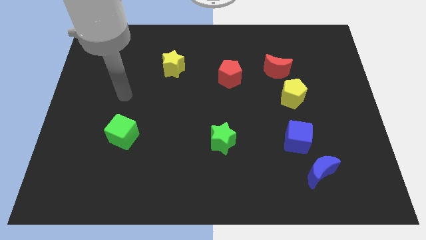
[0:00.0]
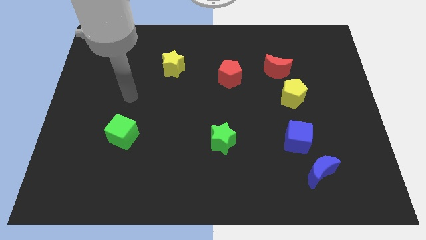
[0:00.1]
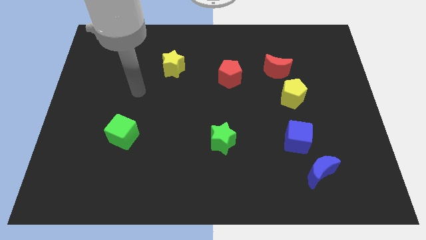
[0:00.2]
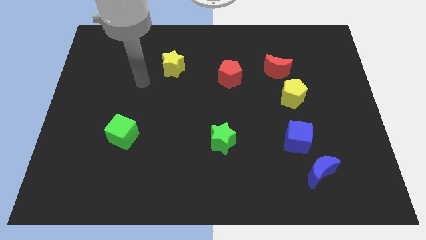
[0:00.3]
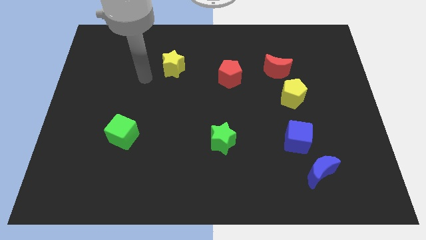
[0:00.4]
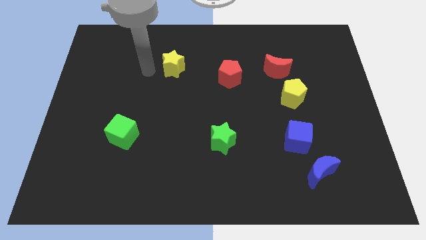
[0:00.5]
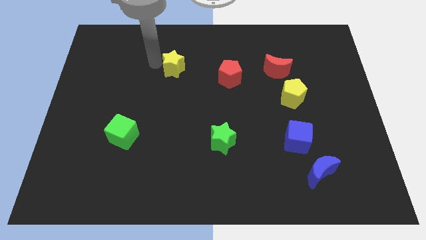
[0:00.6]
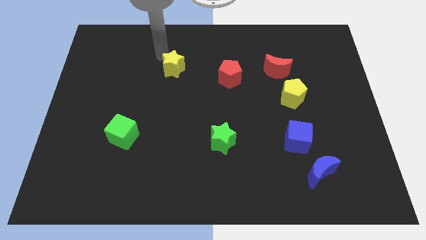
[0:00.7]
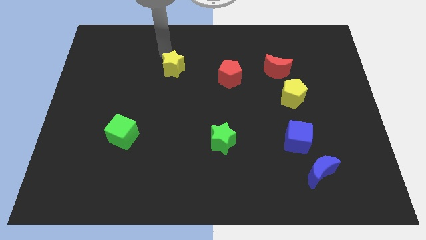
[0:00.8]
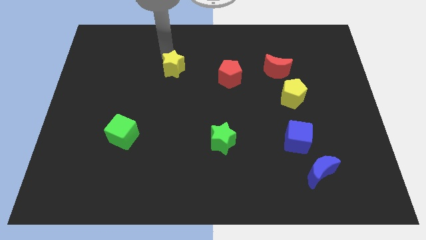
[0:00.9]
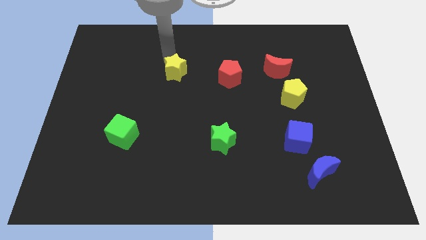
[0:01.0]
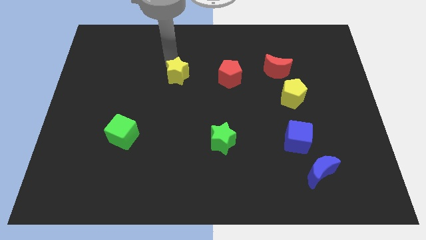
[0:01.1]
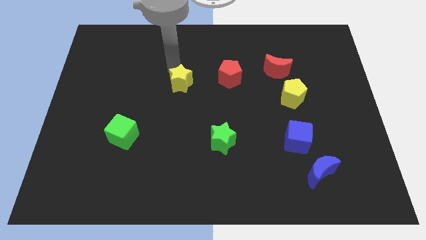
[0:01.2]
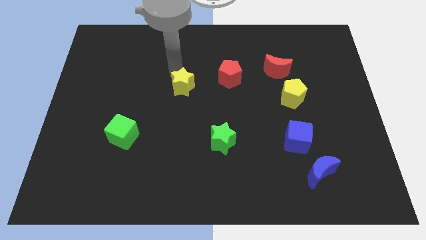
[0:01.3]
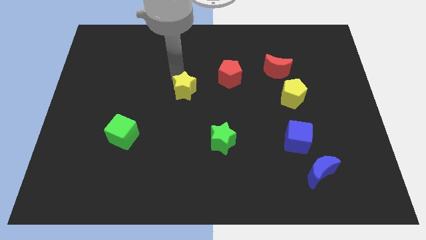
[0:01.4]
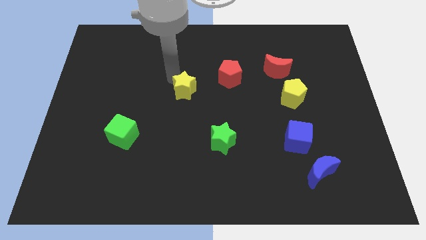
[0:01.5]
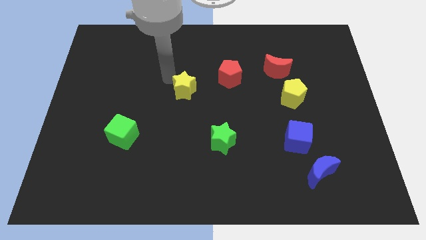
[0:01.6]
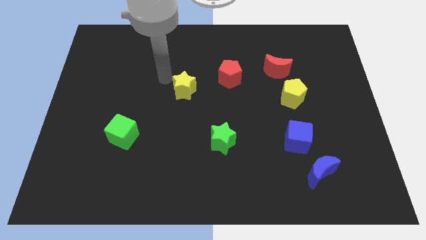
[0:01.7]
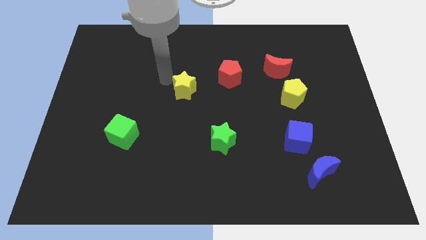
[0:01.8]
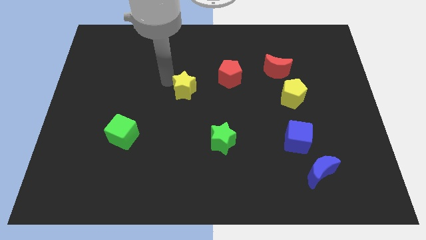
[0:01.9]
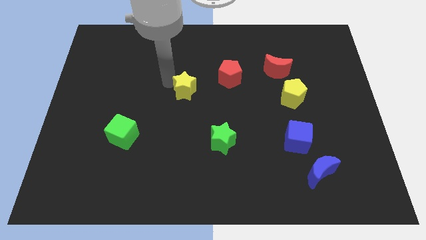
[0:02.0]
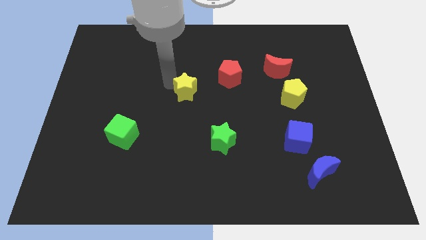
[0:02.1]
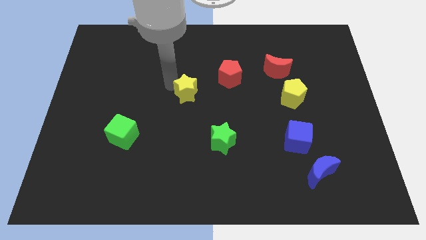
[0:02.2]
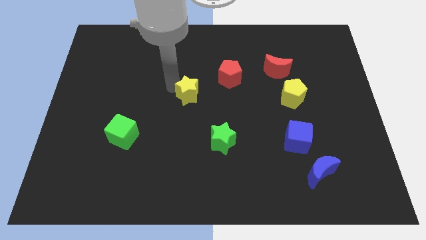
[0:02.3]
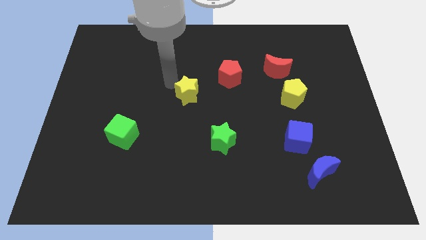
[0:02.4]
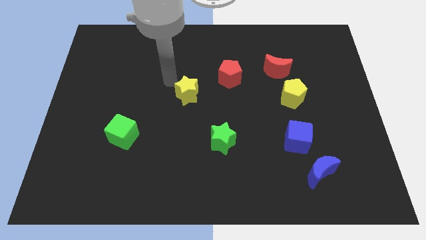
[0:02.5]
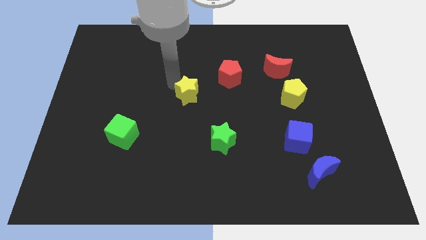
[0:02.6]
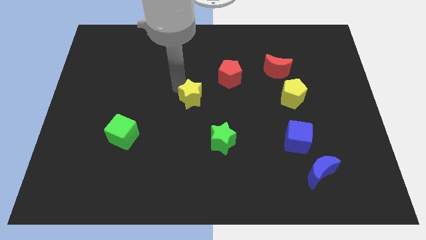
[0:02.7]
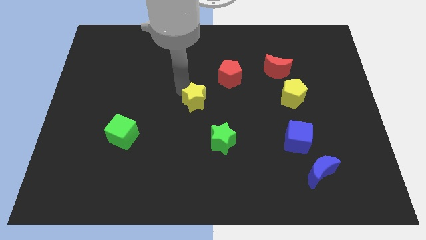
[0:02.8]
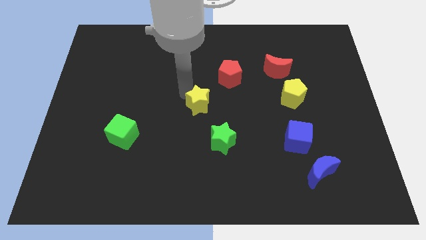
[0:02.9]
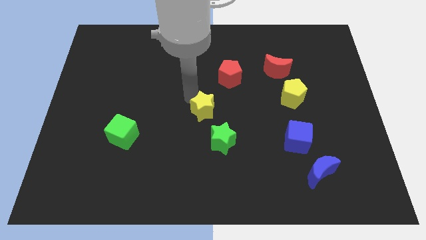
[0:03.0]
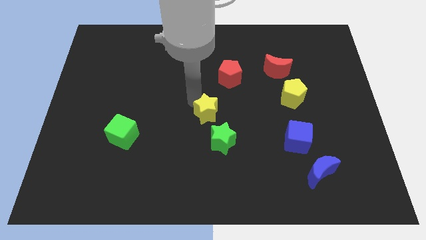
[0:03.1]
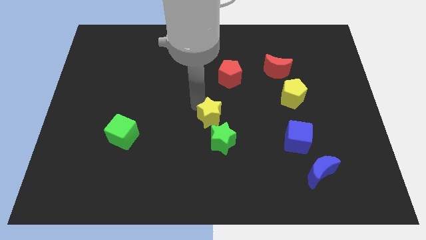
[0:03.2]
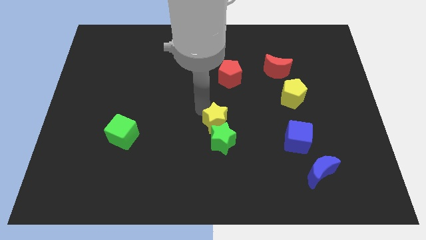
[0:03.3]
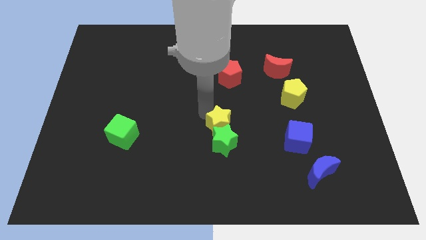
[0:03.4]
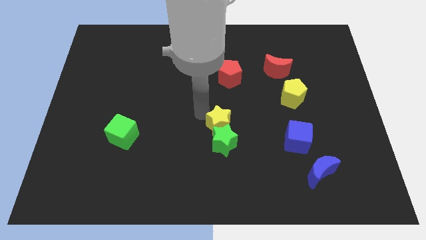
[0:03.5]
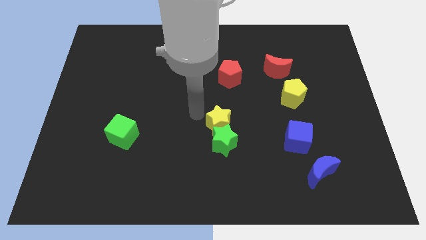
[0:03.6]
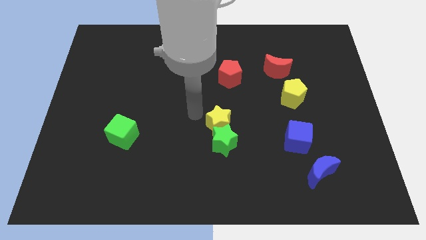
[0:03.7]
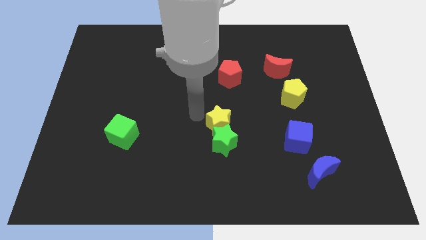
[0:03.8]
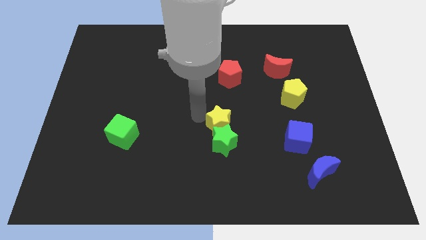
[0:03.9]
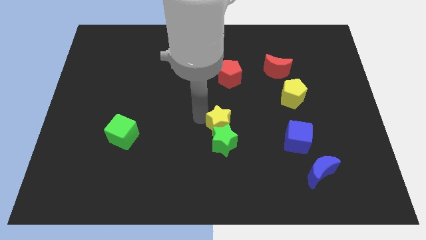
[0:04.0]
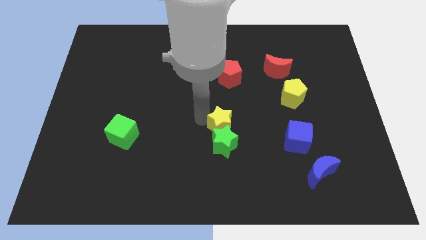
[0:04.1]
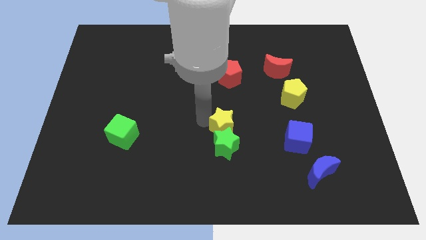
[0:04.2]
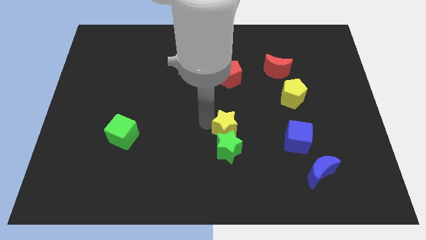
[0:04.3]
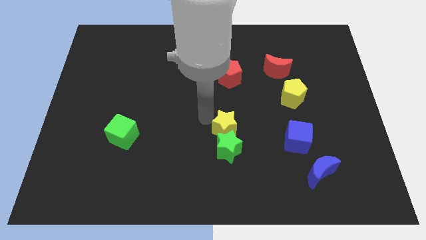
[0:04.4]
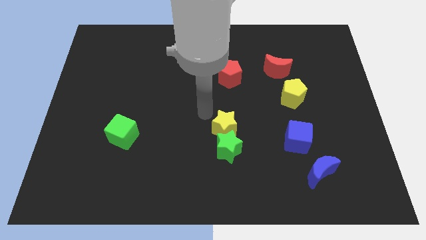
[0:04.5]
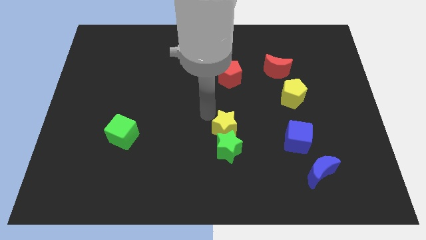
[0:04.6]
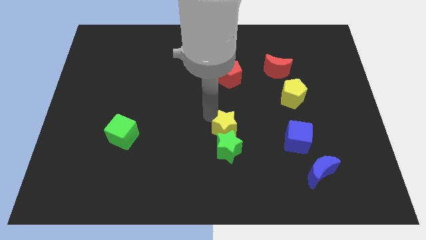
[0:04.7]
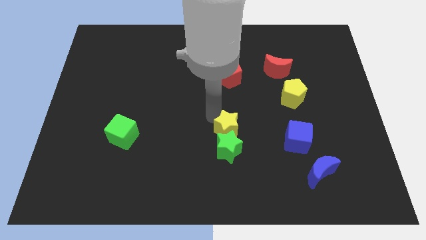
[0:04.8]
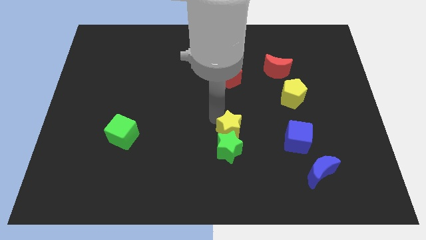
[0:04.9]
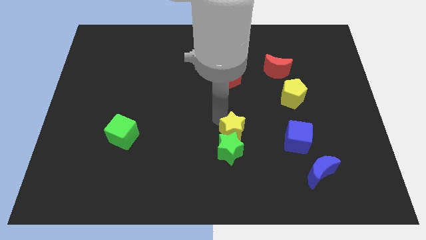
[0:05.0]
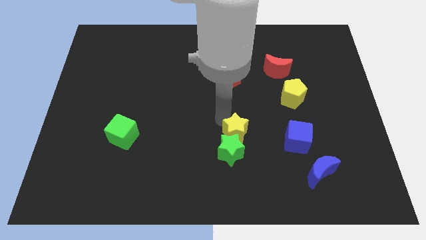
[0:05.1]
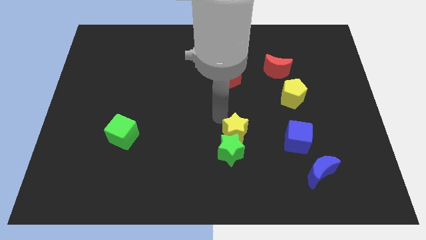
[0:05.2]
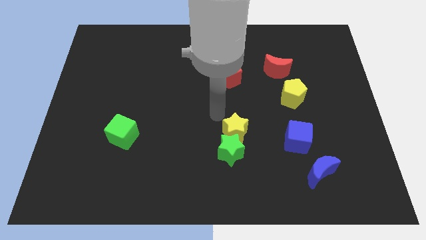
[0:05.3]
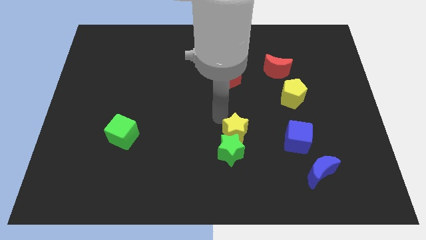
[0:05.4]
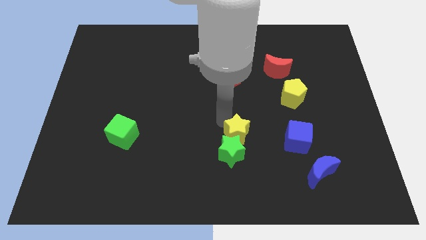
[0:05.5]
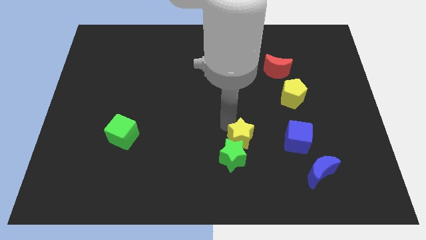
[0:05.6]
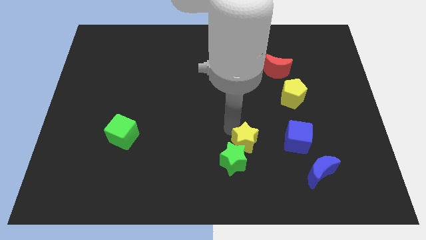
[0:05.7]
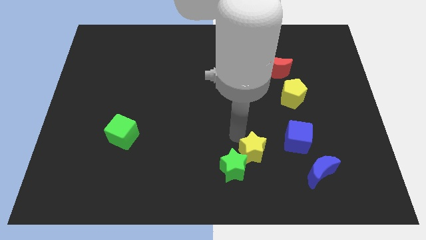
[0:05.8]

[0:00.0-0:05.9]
put the yellow star to the bottom left of the blue cube

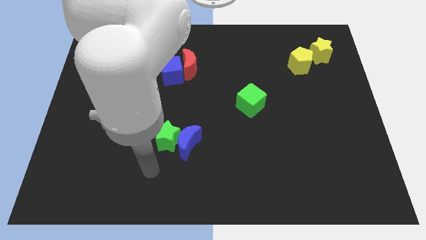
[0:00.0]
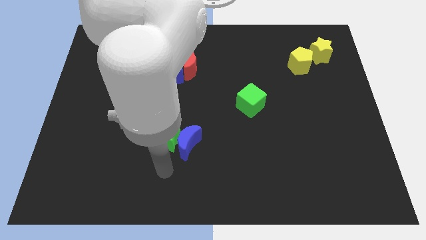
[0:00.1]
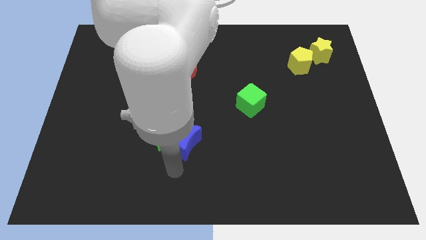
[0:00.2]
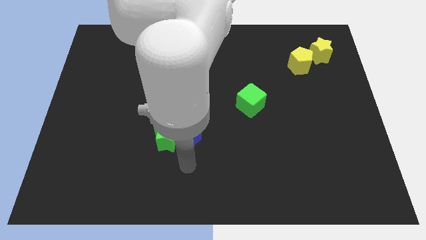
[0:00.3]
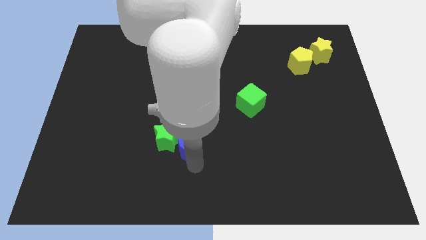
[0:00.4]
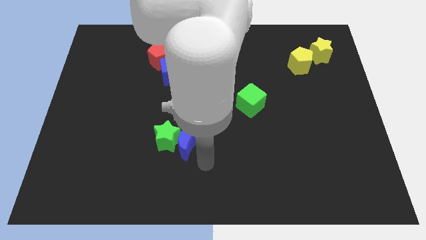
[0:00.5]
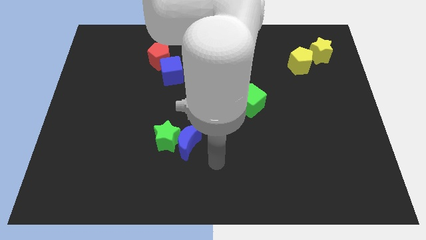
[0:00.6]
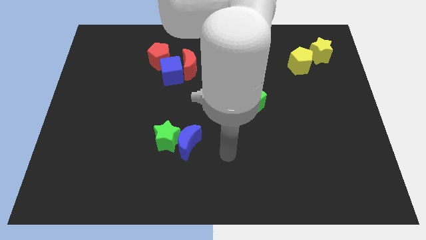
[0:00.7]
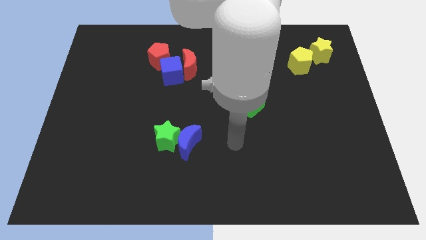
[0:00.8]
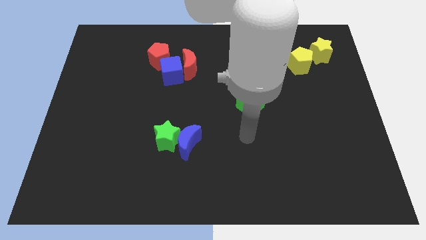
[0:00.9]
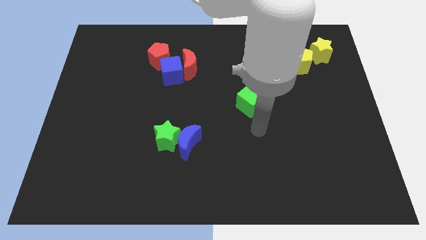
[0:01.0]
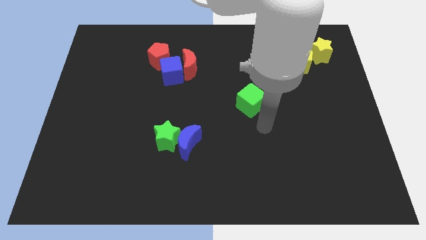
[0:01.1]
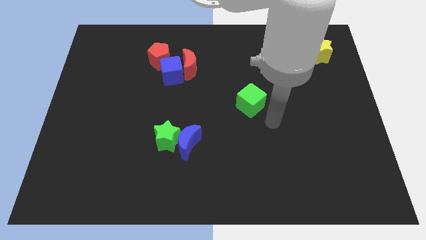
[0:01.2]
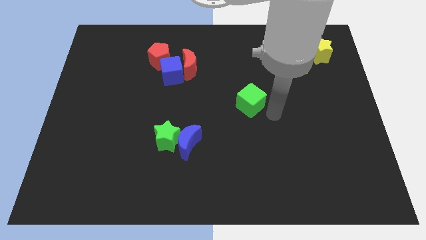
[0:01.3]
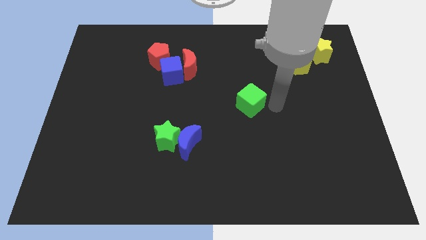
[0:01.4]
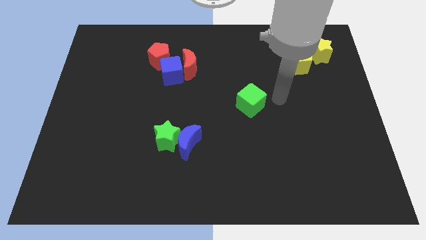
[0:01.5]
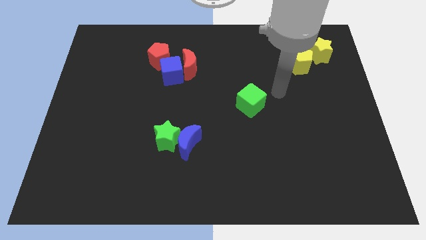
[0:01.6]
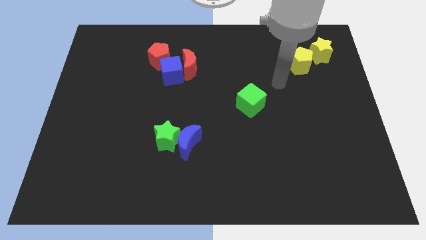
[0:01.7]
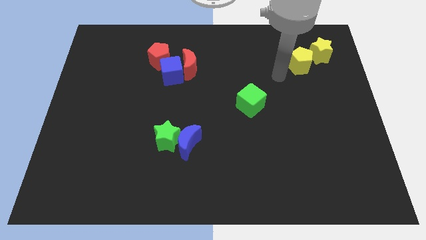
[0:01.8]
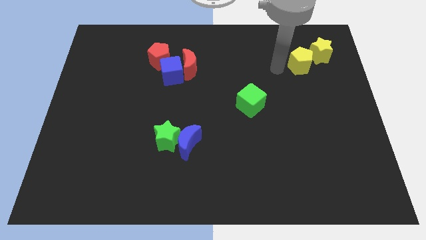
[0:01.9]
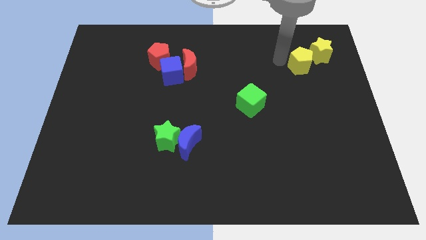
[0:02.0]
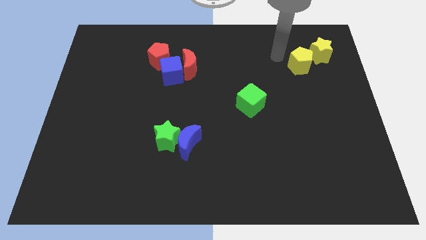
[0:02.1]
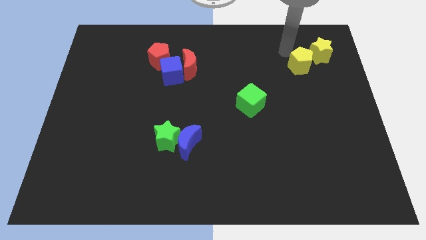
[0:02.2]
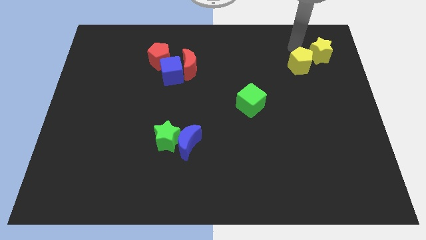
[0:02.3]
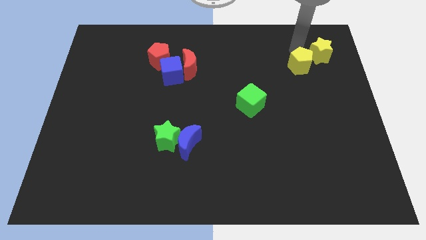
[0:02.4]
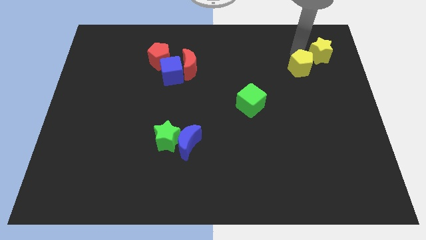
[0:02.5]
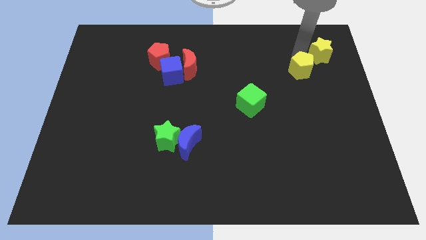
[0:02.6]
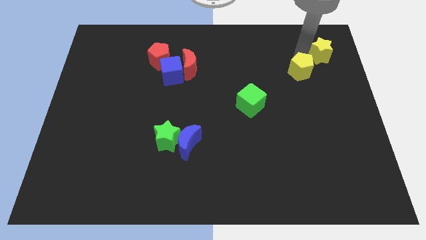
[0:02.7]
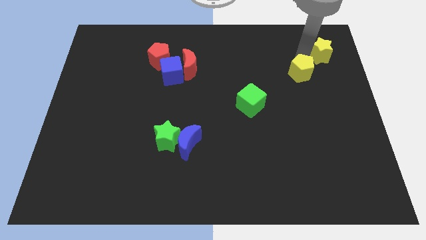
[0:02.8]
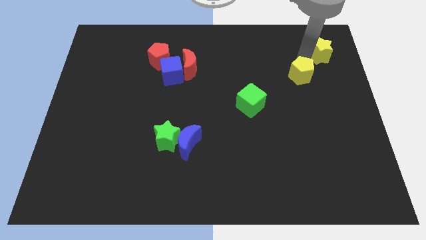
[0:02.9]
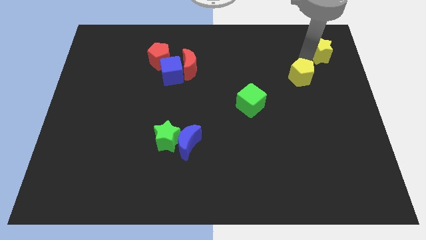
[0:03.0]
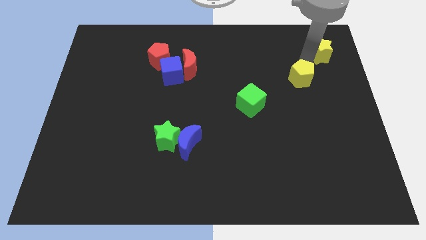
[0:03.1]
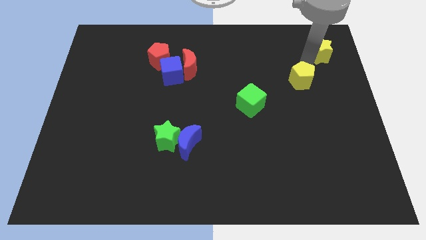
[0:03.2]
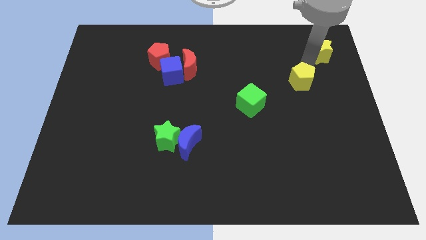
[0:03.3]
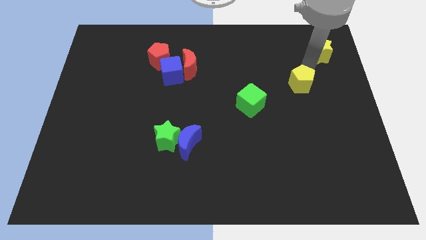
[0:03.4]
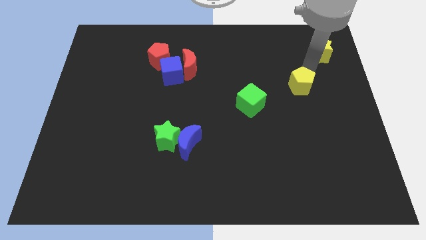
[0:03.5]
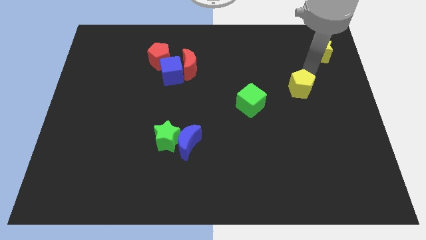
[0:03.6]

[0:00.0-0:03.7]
put the yellow pentagon right of the green cube
